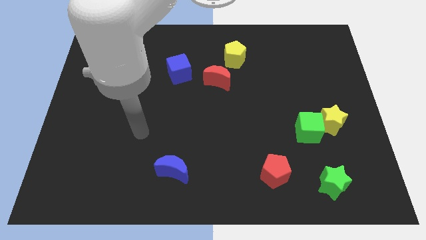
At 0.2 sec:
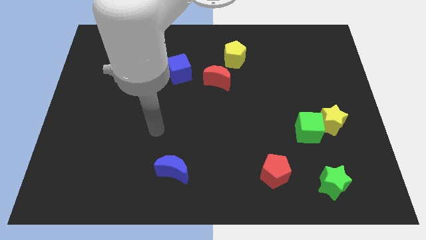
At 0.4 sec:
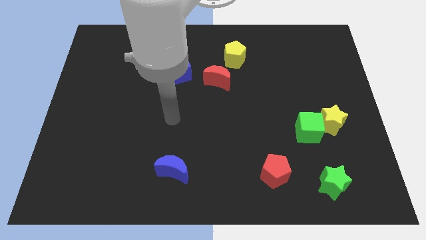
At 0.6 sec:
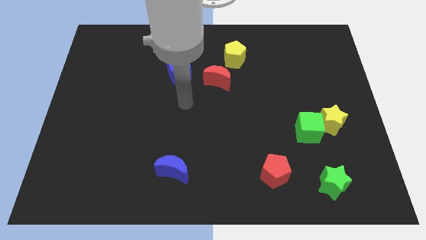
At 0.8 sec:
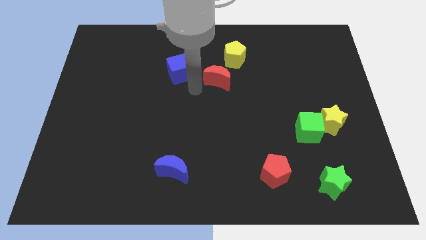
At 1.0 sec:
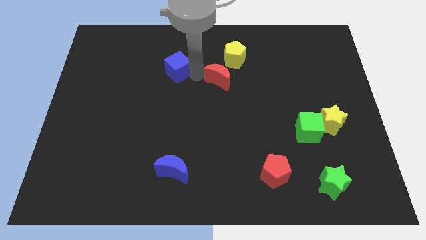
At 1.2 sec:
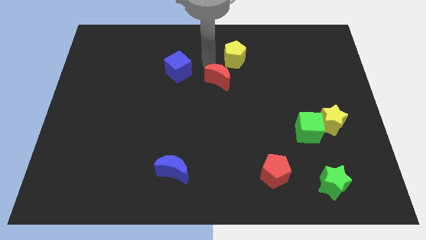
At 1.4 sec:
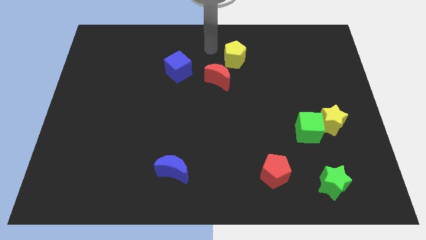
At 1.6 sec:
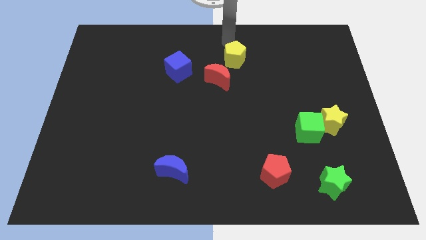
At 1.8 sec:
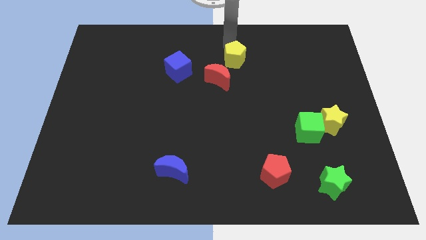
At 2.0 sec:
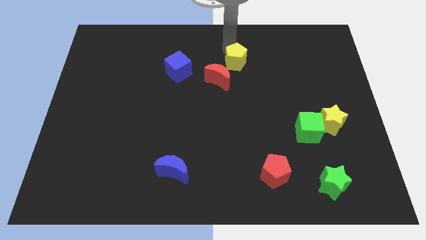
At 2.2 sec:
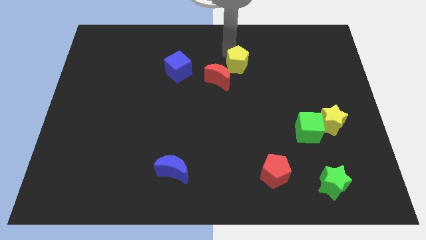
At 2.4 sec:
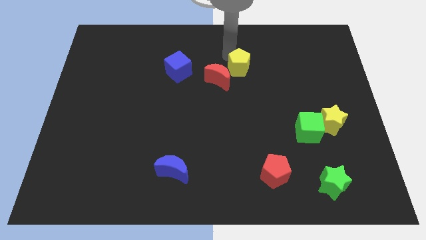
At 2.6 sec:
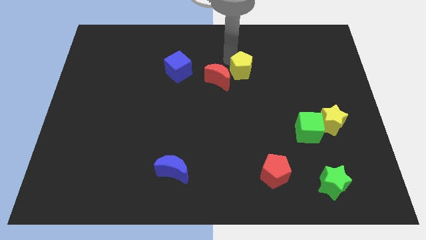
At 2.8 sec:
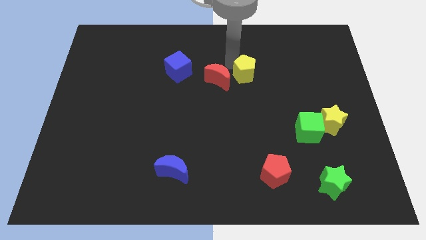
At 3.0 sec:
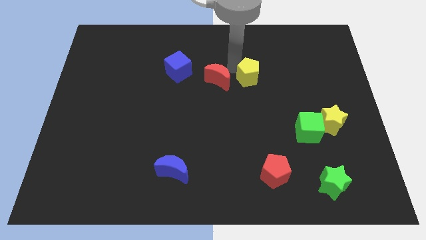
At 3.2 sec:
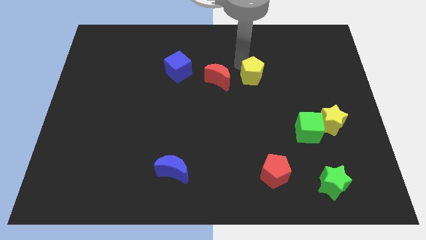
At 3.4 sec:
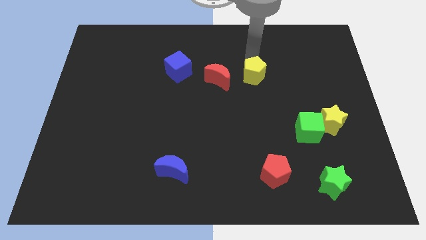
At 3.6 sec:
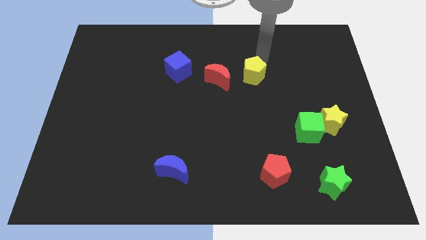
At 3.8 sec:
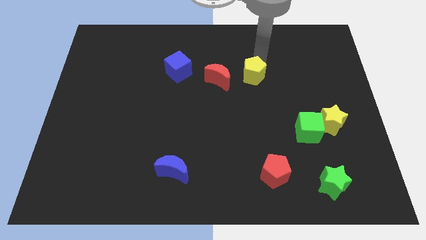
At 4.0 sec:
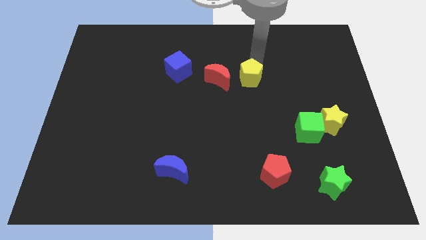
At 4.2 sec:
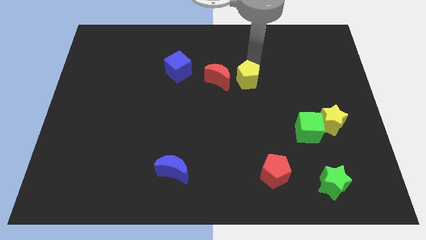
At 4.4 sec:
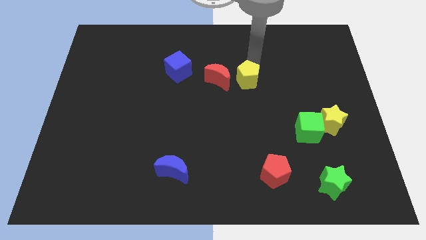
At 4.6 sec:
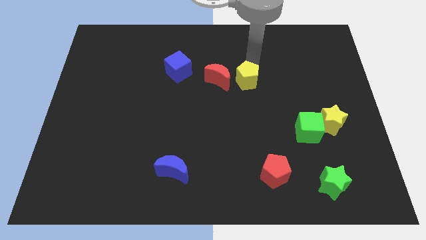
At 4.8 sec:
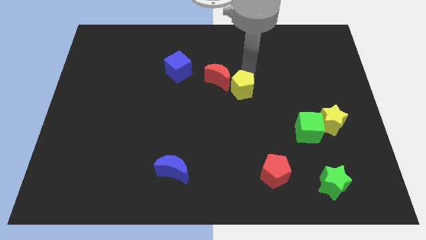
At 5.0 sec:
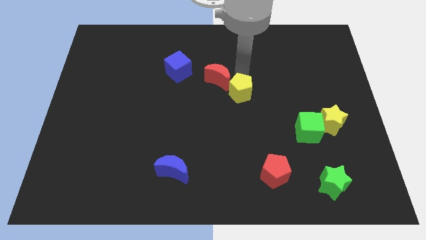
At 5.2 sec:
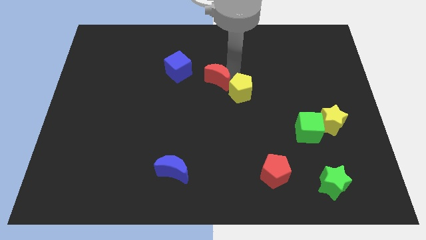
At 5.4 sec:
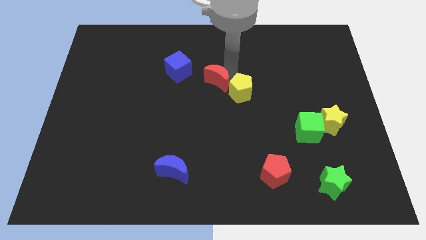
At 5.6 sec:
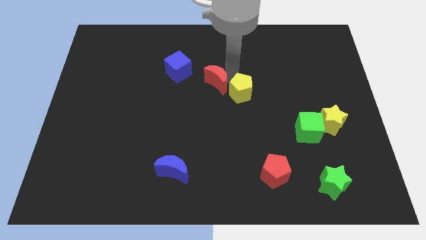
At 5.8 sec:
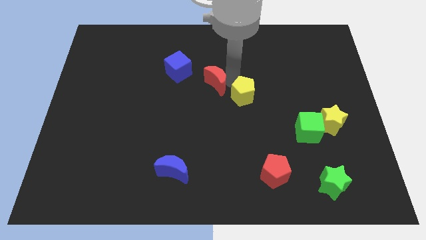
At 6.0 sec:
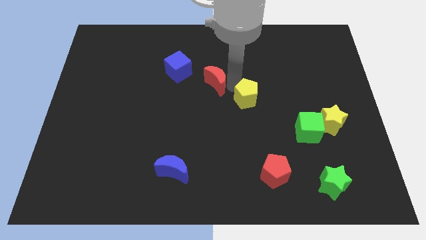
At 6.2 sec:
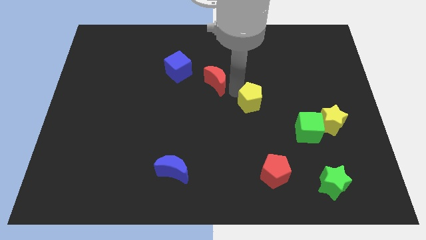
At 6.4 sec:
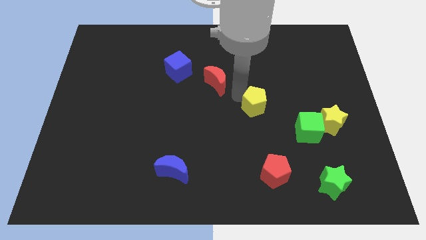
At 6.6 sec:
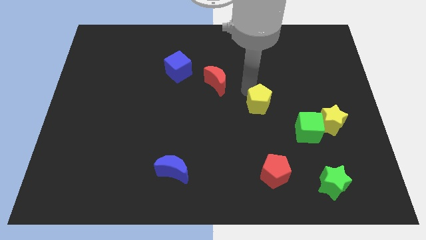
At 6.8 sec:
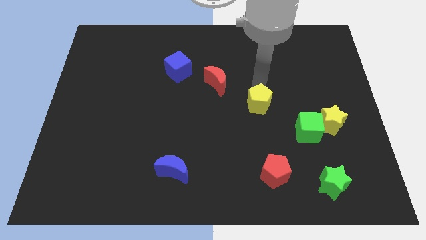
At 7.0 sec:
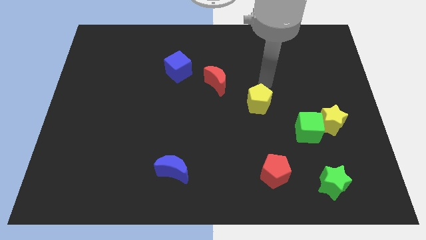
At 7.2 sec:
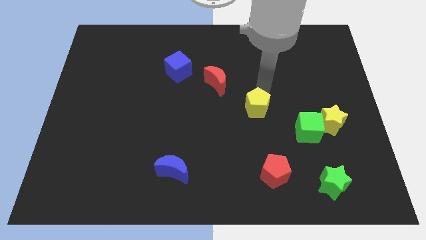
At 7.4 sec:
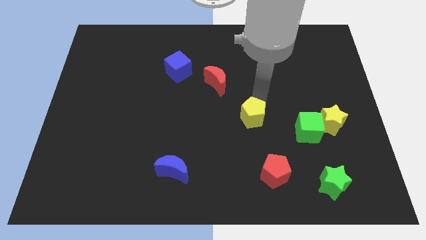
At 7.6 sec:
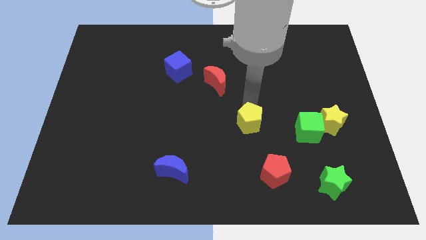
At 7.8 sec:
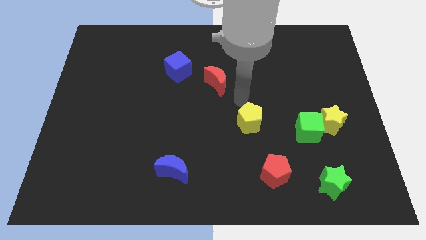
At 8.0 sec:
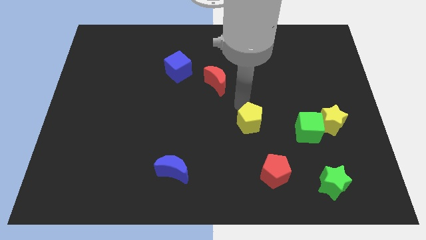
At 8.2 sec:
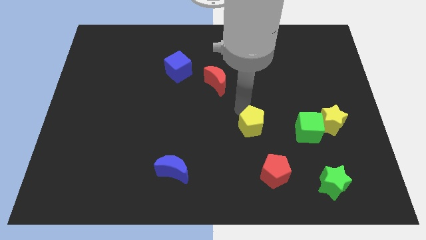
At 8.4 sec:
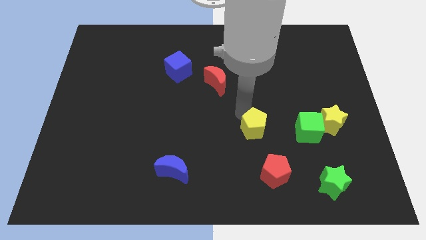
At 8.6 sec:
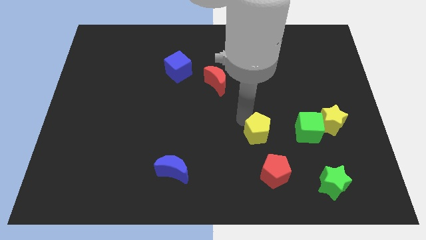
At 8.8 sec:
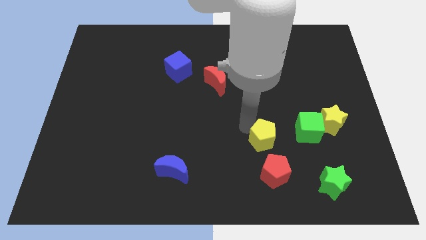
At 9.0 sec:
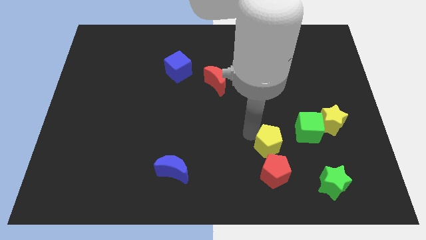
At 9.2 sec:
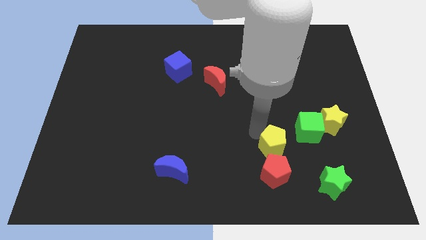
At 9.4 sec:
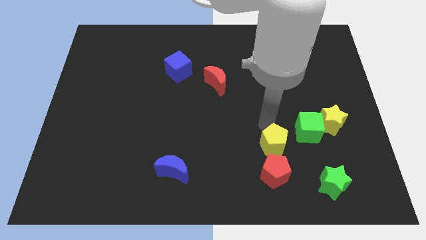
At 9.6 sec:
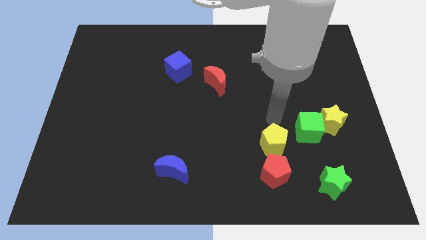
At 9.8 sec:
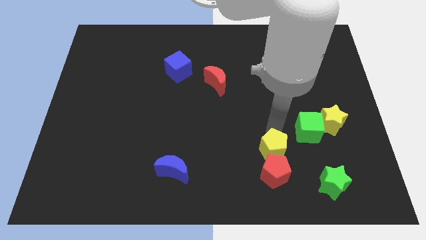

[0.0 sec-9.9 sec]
move the yellow pentagon to the red pentagon

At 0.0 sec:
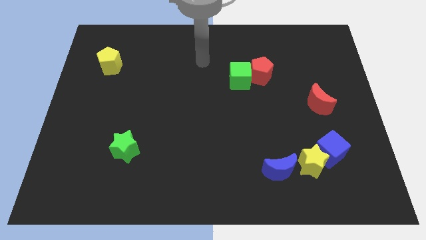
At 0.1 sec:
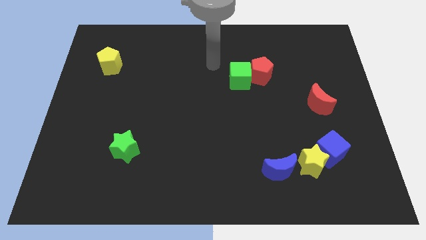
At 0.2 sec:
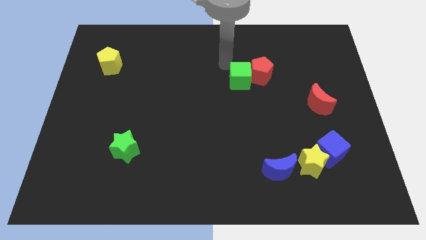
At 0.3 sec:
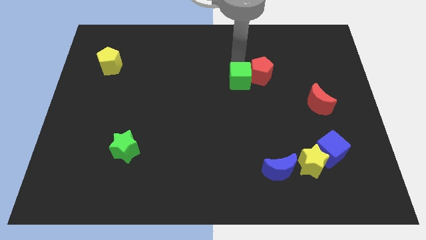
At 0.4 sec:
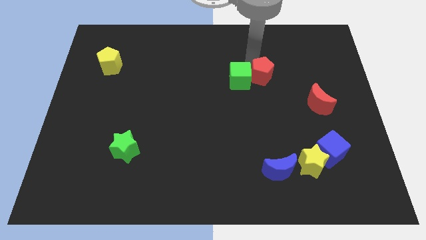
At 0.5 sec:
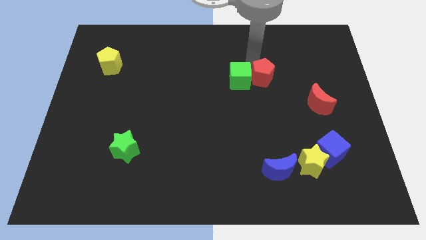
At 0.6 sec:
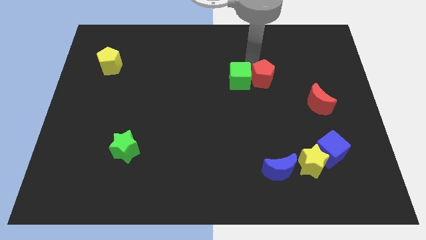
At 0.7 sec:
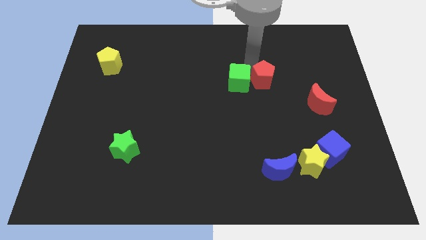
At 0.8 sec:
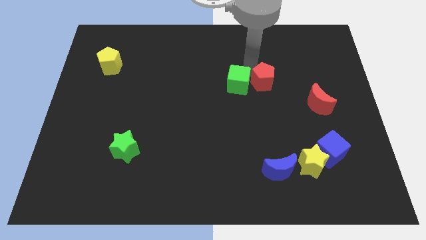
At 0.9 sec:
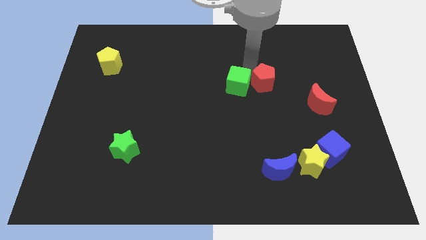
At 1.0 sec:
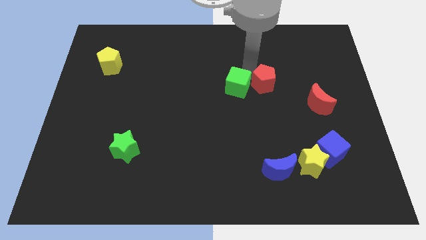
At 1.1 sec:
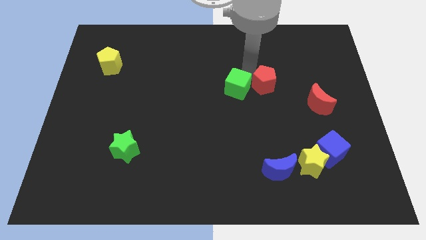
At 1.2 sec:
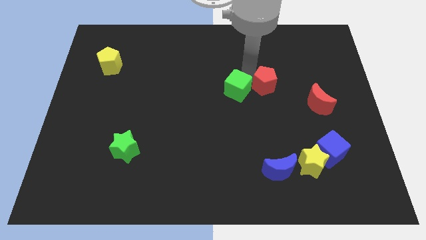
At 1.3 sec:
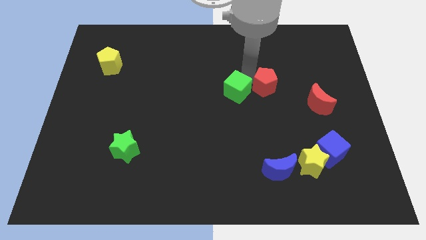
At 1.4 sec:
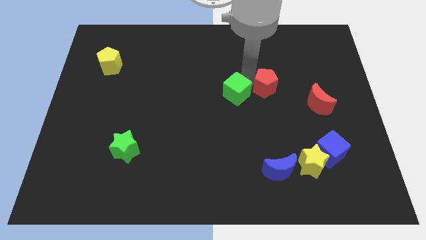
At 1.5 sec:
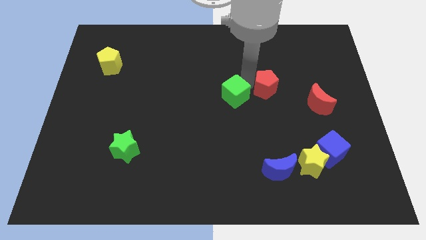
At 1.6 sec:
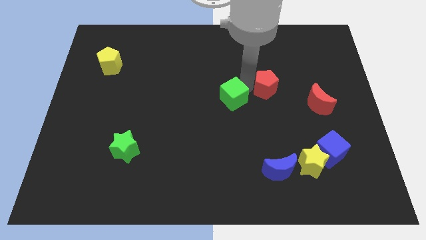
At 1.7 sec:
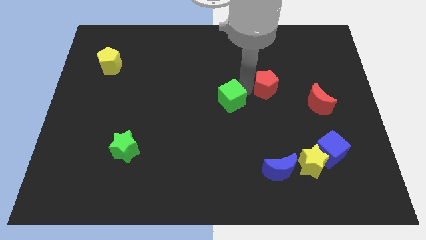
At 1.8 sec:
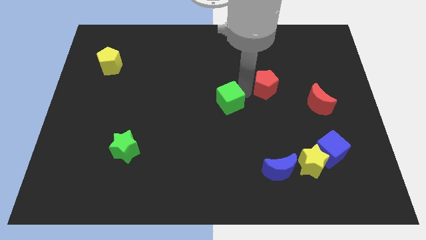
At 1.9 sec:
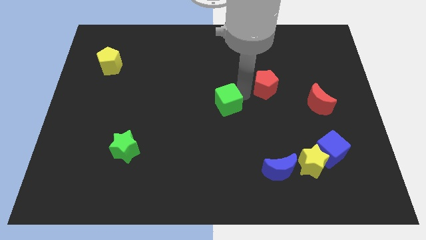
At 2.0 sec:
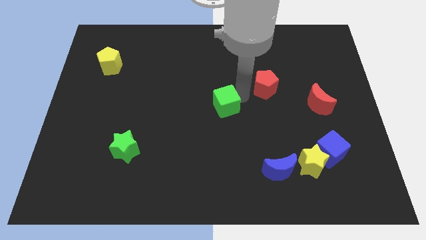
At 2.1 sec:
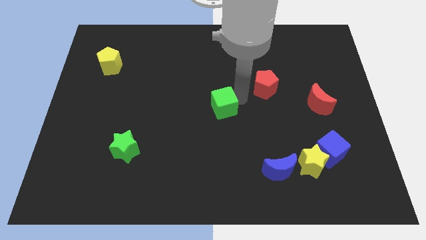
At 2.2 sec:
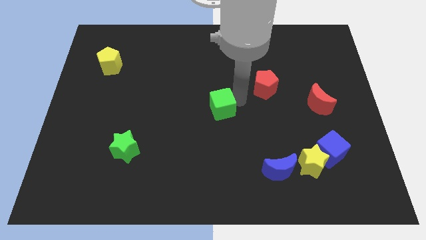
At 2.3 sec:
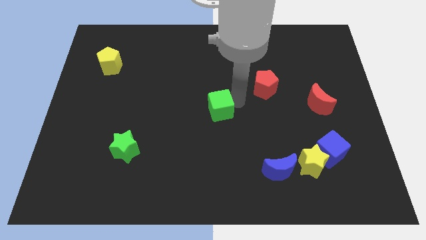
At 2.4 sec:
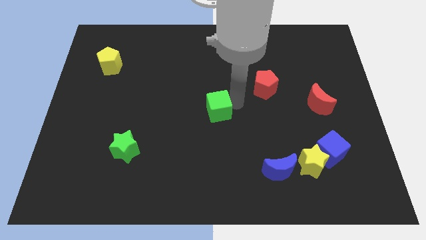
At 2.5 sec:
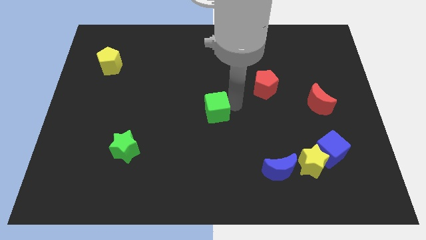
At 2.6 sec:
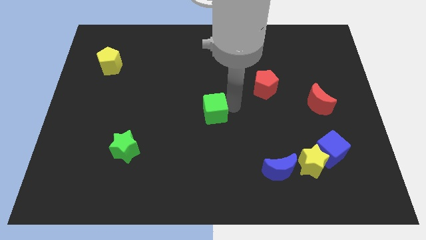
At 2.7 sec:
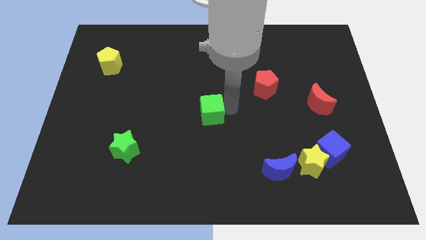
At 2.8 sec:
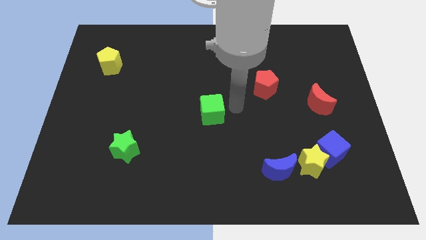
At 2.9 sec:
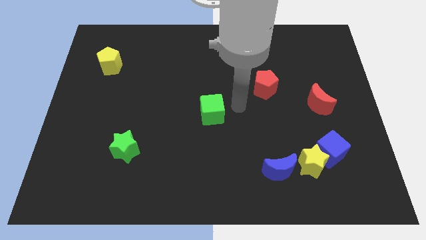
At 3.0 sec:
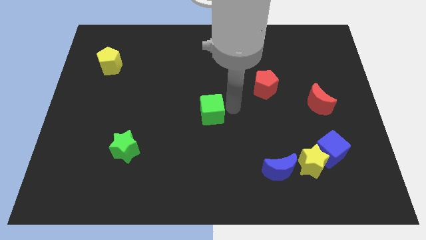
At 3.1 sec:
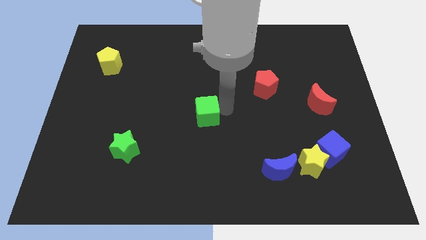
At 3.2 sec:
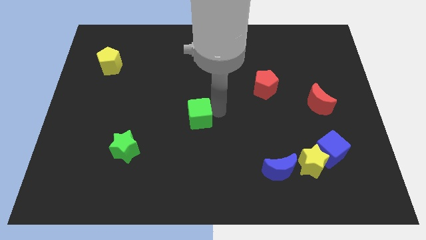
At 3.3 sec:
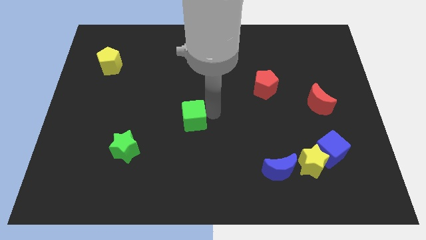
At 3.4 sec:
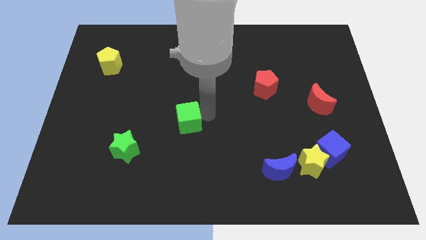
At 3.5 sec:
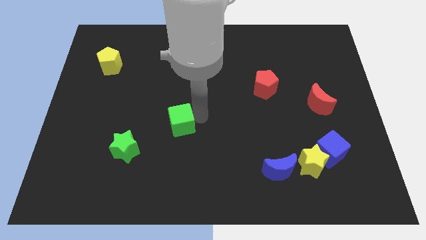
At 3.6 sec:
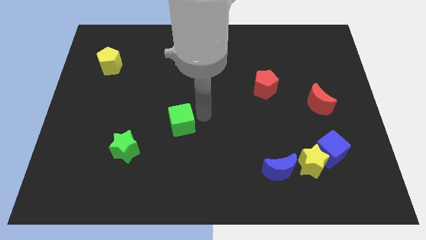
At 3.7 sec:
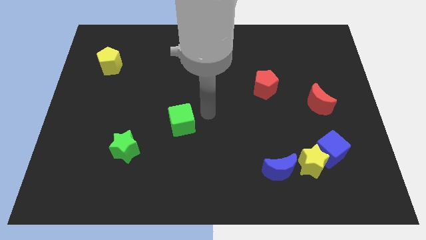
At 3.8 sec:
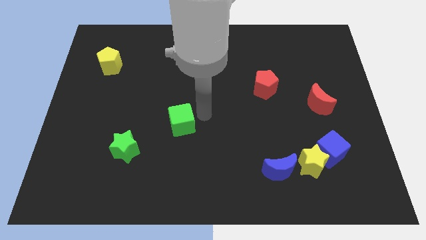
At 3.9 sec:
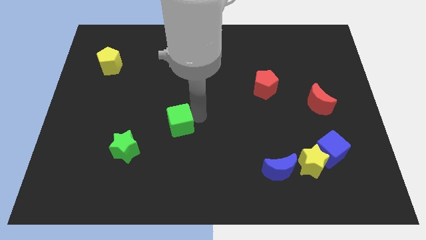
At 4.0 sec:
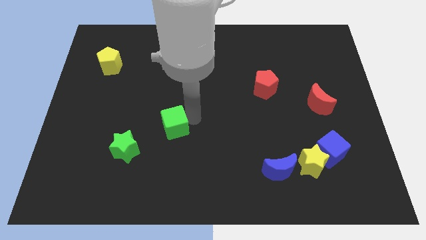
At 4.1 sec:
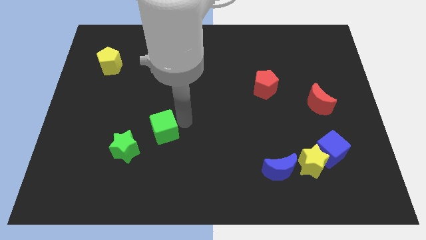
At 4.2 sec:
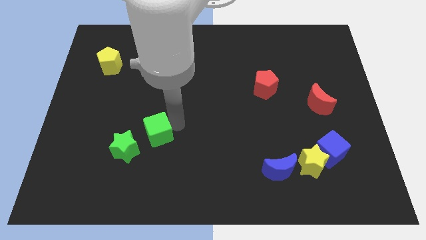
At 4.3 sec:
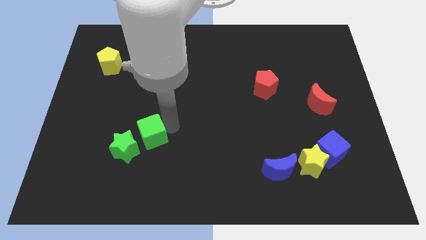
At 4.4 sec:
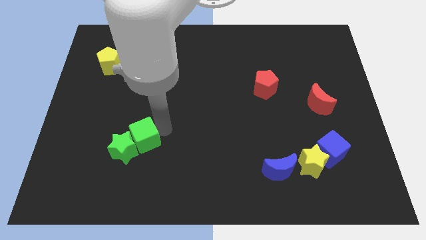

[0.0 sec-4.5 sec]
move the green cube towards the green star
